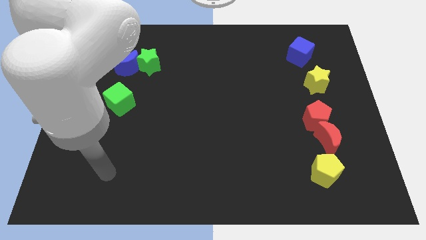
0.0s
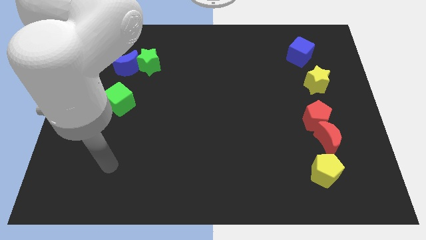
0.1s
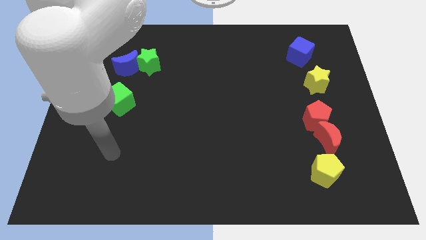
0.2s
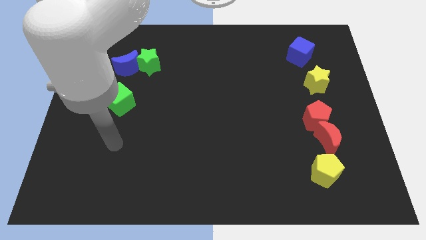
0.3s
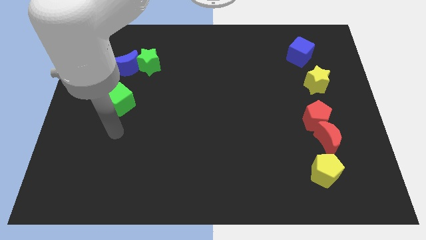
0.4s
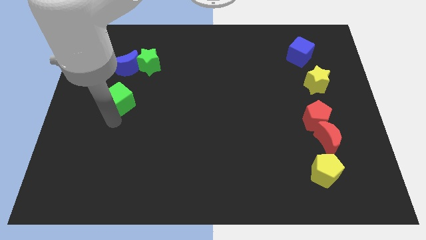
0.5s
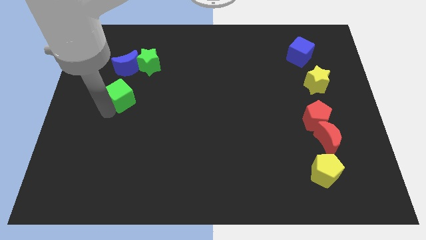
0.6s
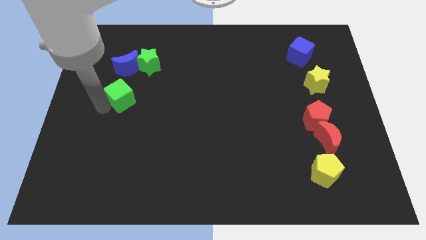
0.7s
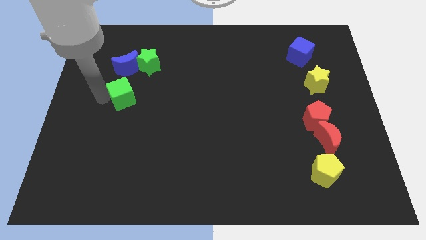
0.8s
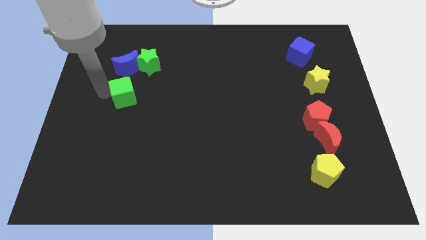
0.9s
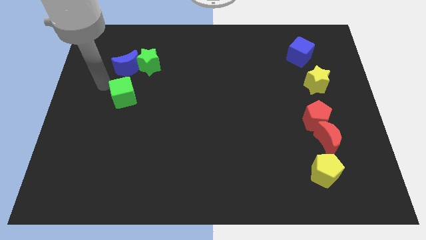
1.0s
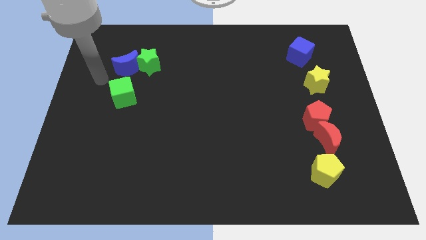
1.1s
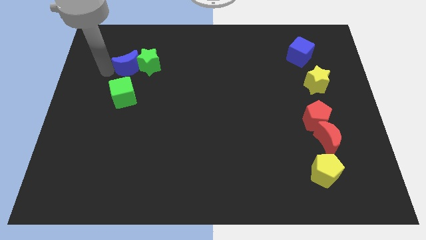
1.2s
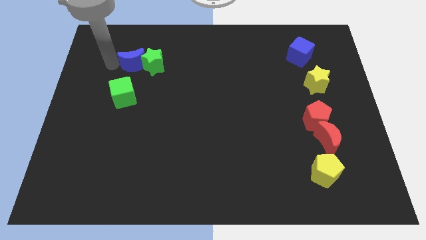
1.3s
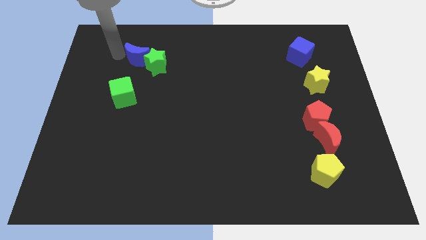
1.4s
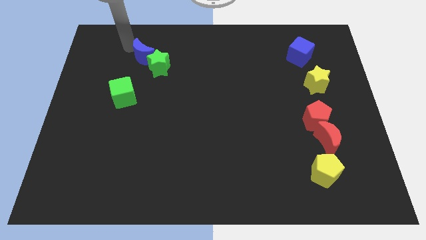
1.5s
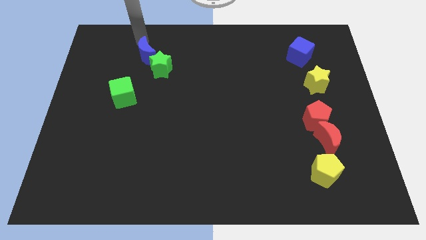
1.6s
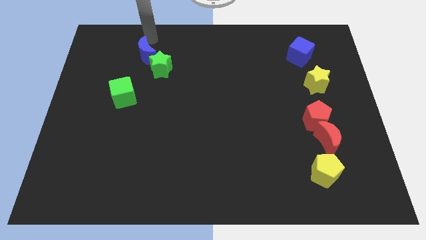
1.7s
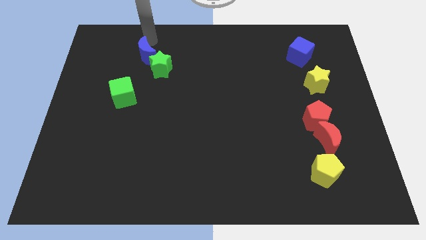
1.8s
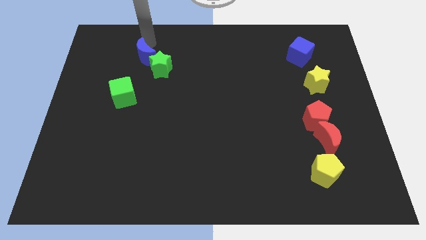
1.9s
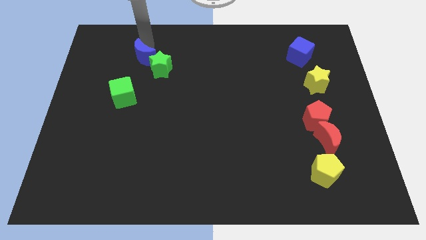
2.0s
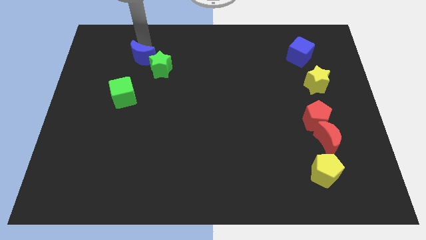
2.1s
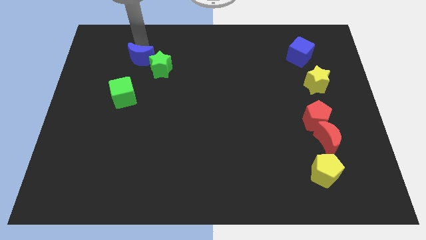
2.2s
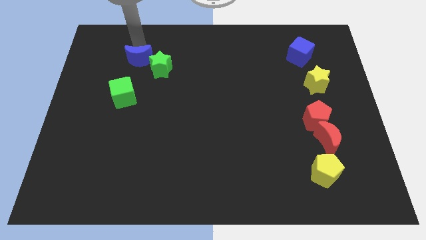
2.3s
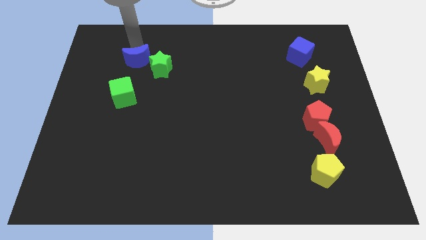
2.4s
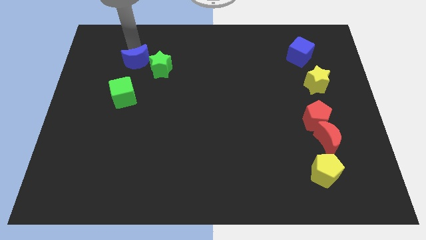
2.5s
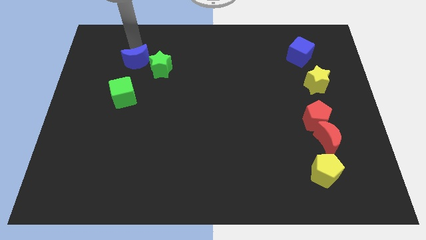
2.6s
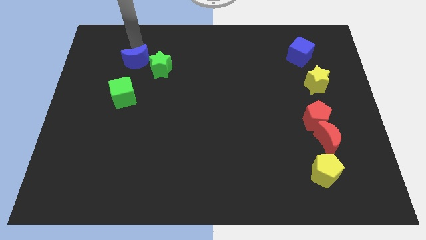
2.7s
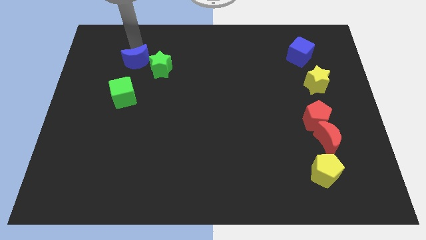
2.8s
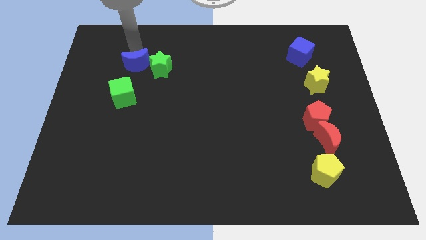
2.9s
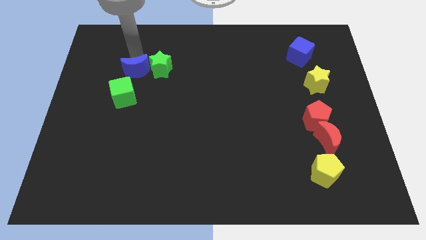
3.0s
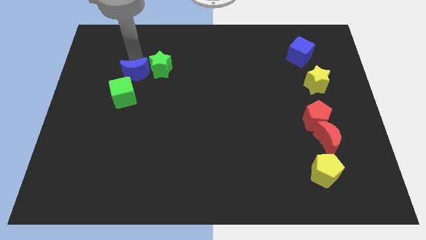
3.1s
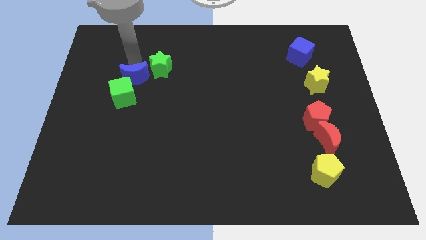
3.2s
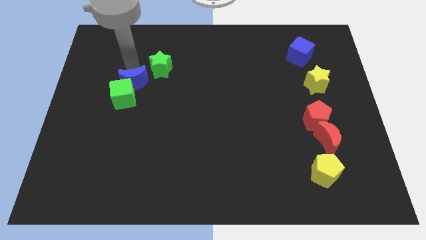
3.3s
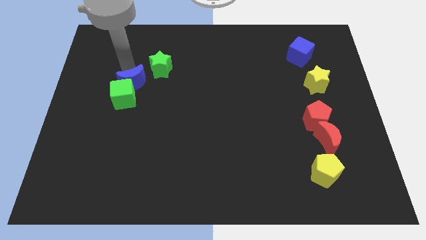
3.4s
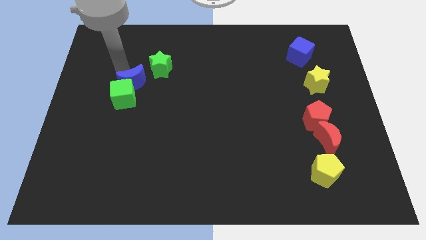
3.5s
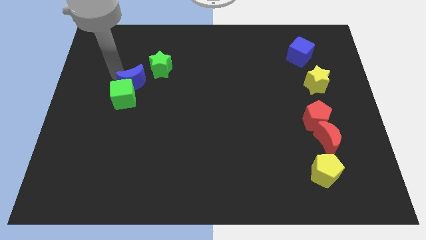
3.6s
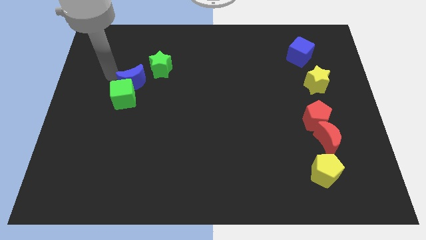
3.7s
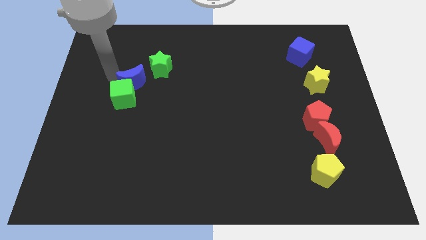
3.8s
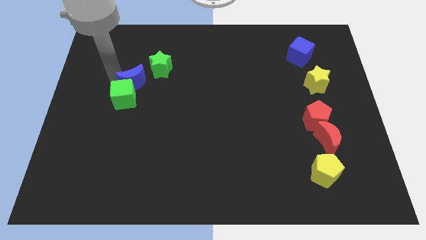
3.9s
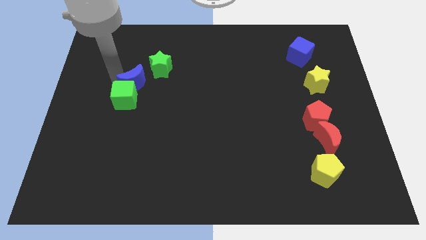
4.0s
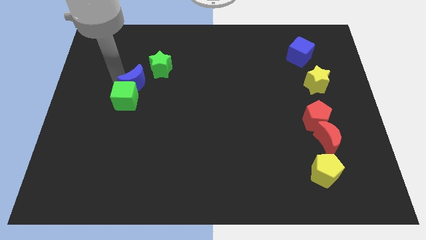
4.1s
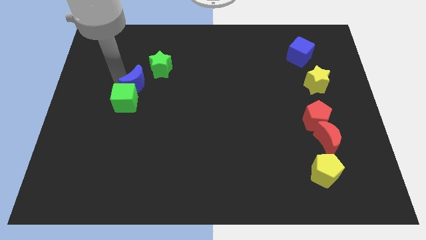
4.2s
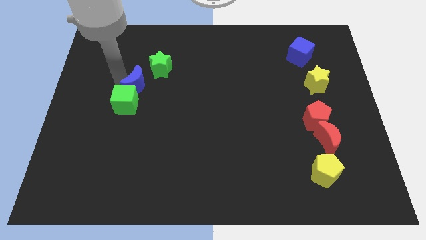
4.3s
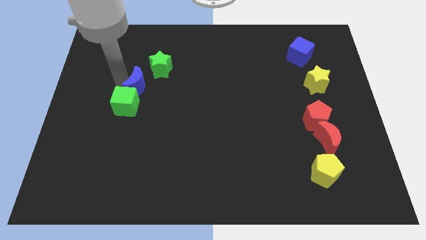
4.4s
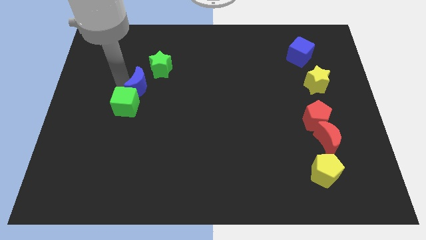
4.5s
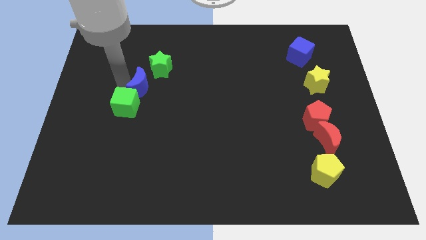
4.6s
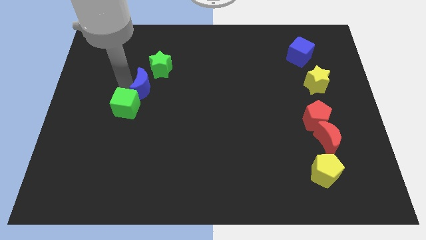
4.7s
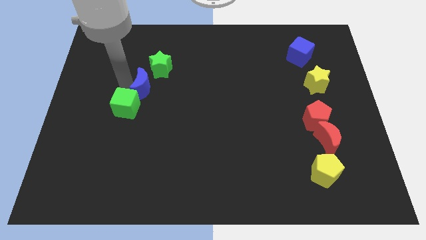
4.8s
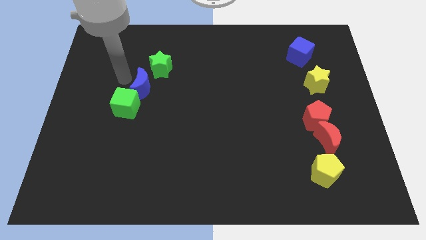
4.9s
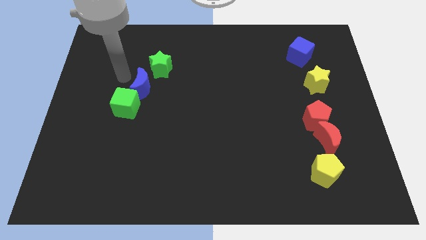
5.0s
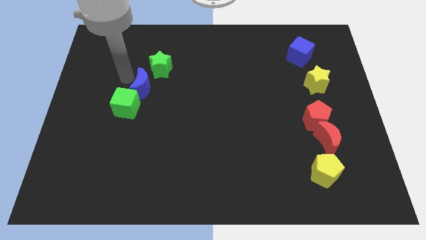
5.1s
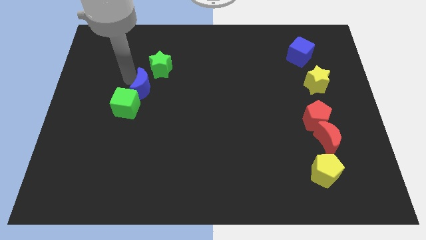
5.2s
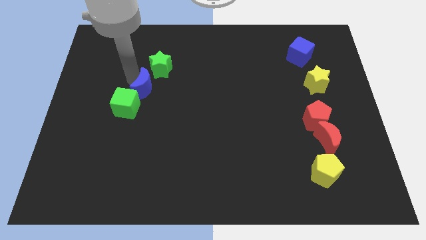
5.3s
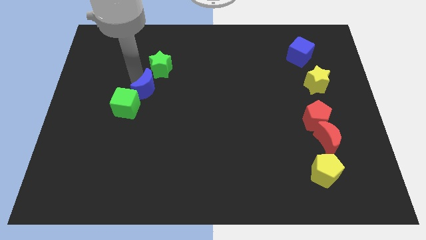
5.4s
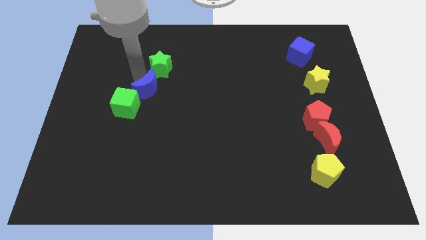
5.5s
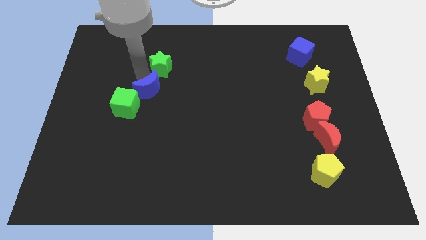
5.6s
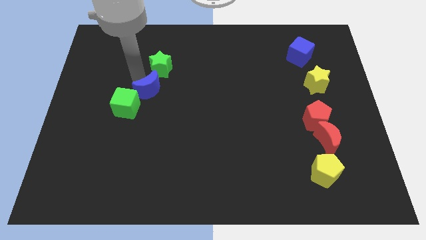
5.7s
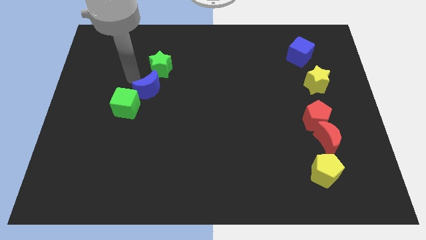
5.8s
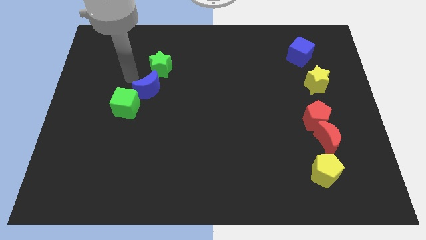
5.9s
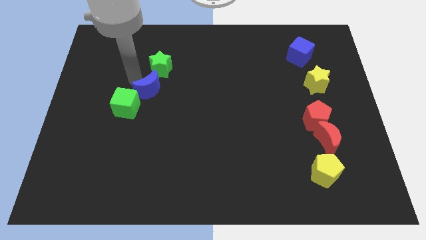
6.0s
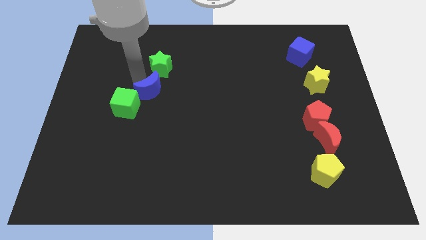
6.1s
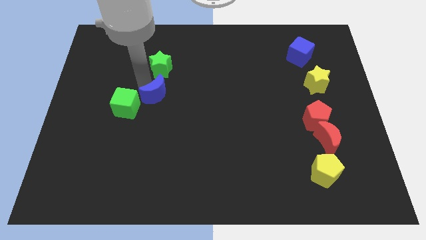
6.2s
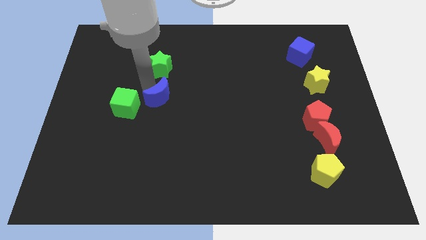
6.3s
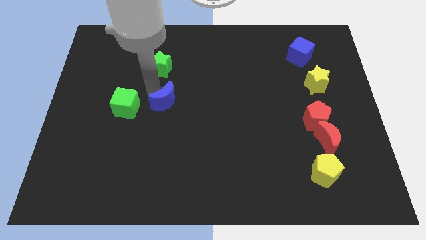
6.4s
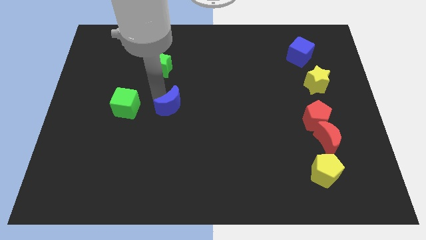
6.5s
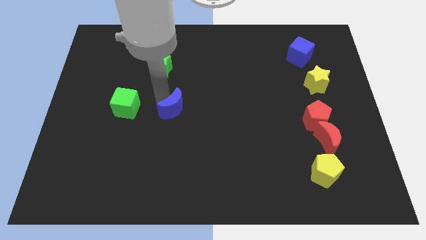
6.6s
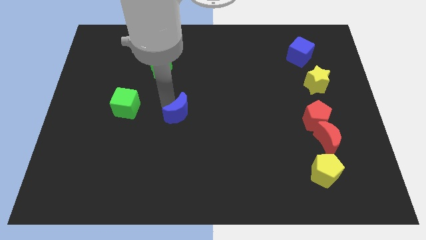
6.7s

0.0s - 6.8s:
move the blue moon down and then right

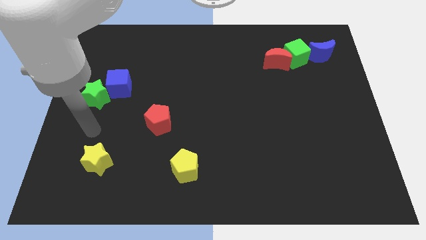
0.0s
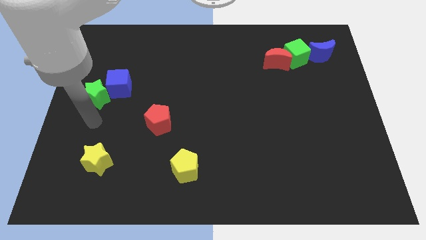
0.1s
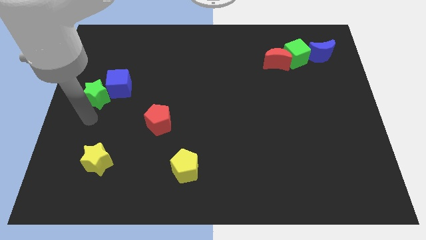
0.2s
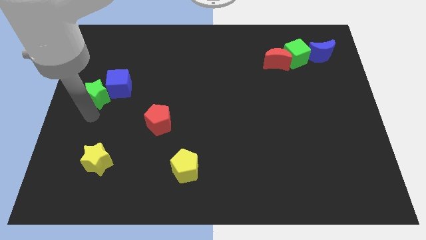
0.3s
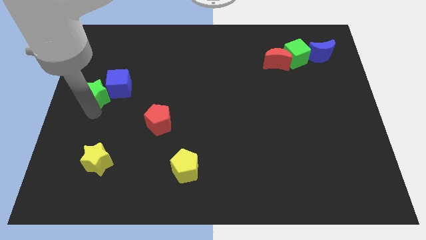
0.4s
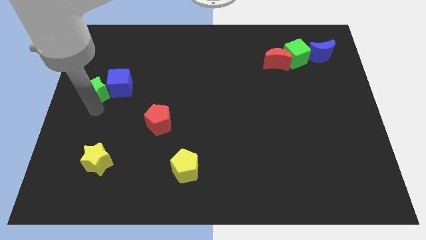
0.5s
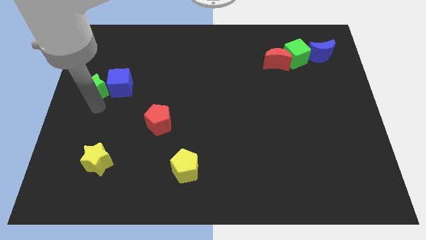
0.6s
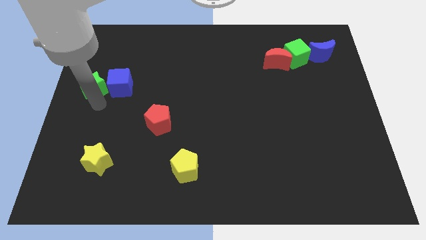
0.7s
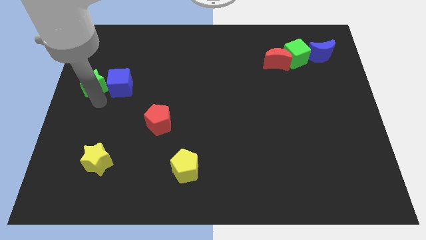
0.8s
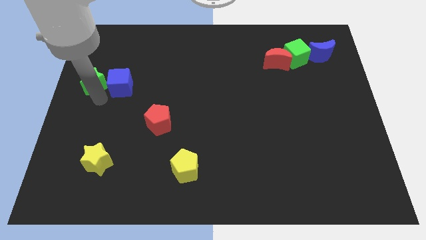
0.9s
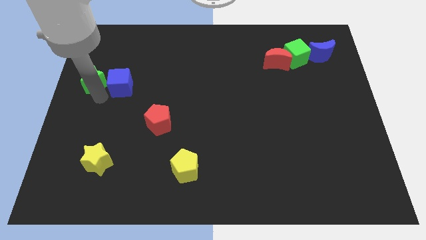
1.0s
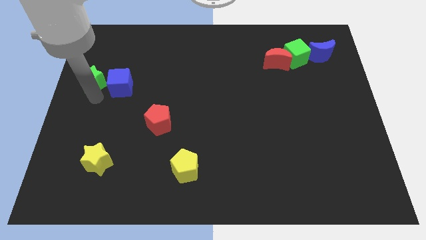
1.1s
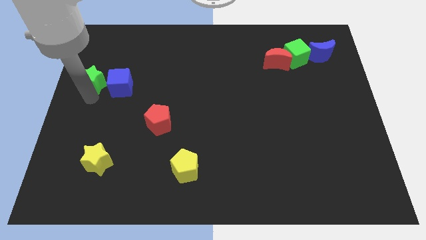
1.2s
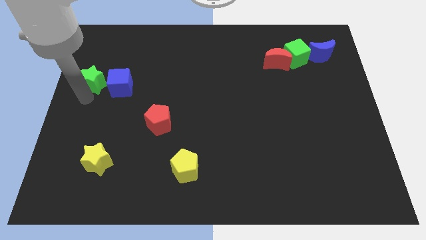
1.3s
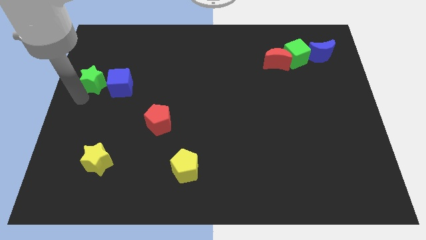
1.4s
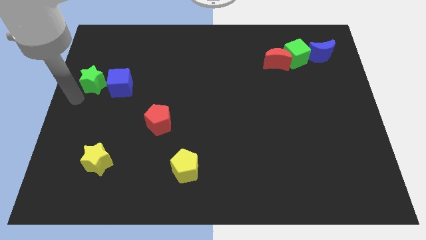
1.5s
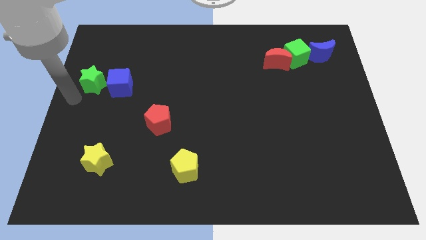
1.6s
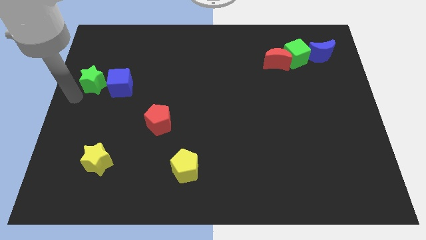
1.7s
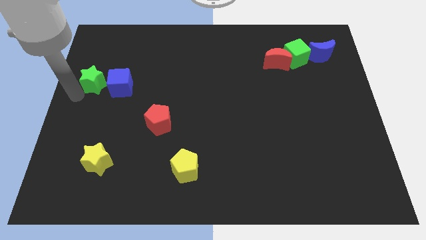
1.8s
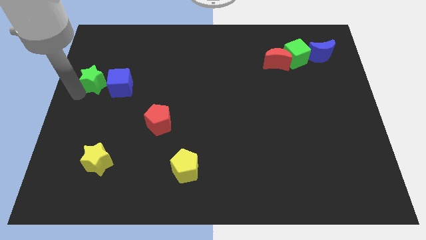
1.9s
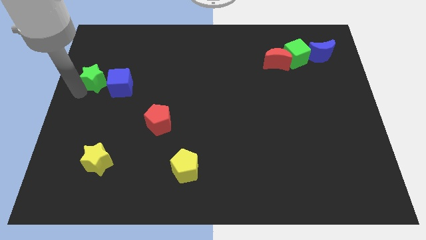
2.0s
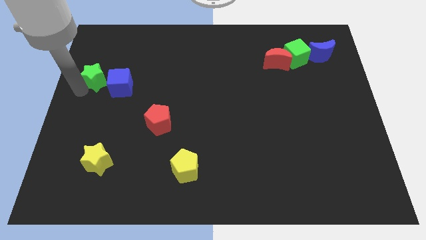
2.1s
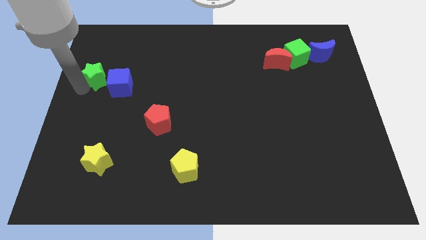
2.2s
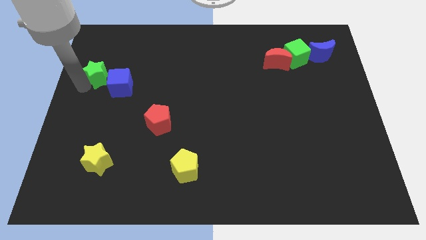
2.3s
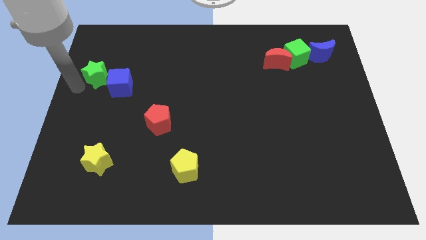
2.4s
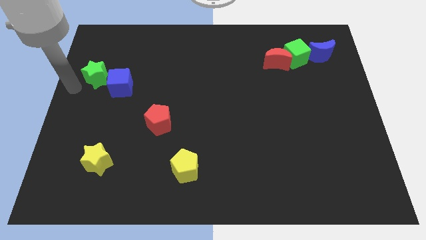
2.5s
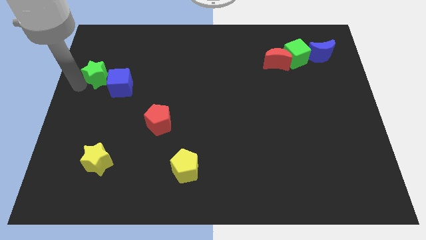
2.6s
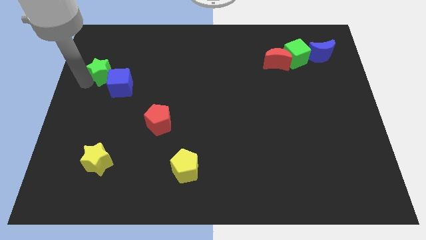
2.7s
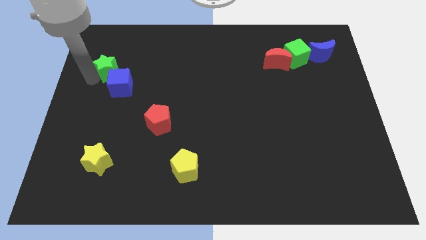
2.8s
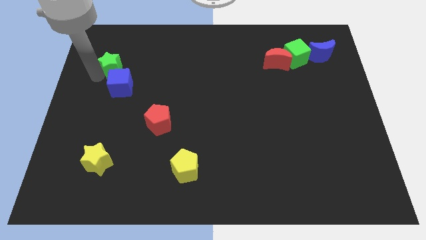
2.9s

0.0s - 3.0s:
move the green star upwards and to the right a little bit
